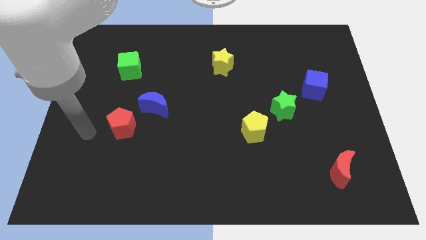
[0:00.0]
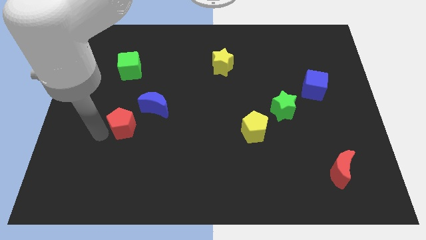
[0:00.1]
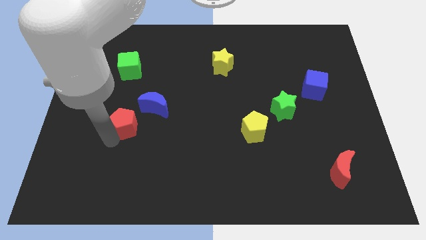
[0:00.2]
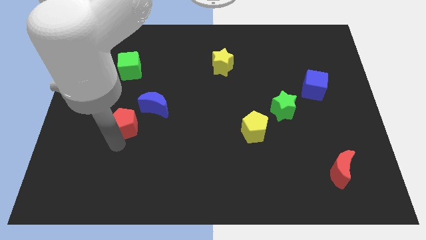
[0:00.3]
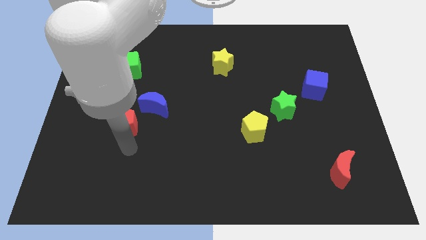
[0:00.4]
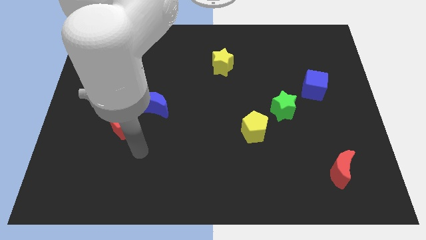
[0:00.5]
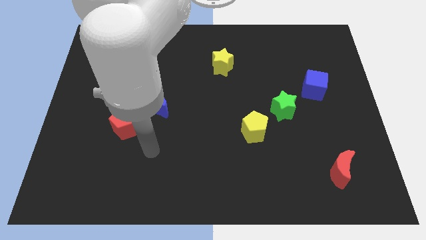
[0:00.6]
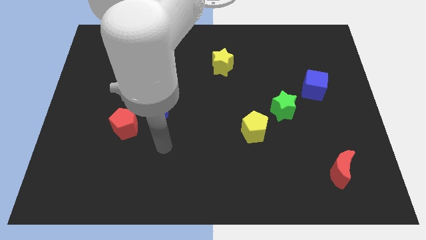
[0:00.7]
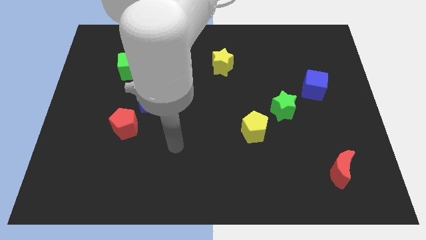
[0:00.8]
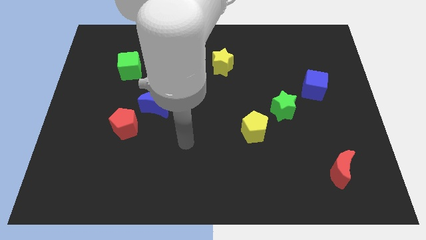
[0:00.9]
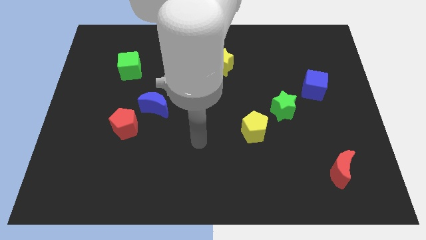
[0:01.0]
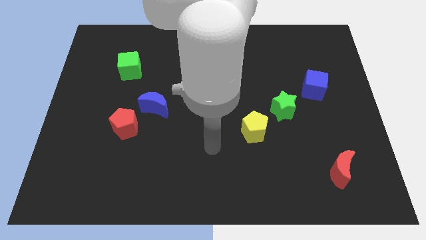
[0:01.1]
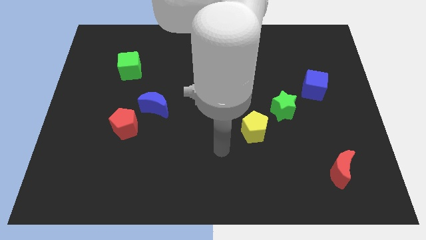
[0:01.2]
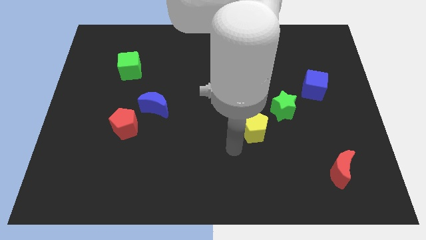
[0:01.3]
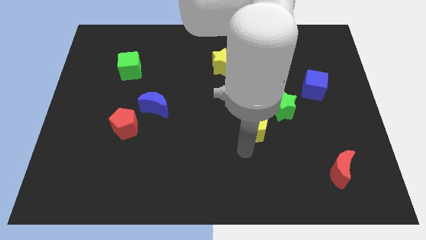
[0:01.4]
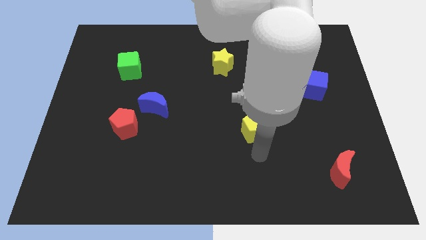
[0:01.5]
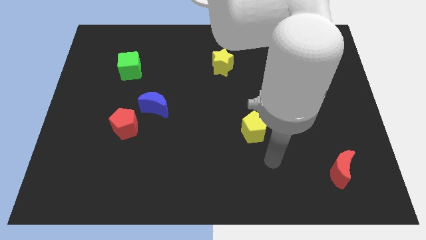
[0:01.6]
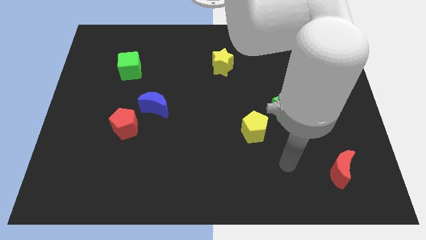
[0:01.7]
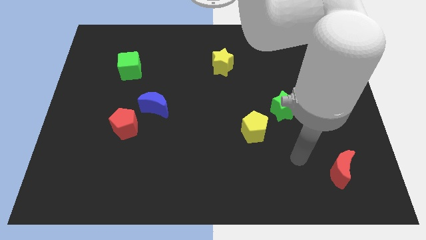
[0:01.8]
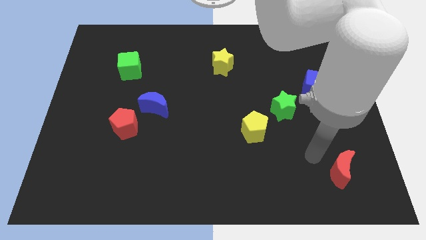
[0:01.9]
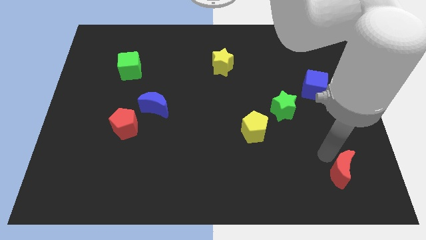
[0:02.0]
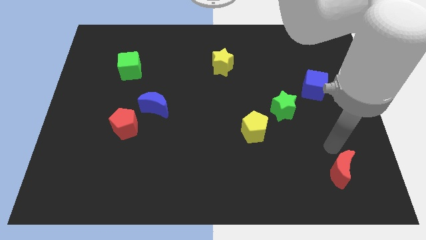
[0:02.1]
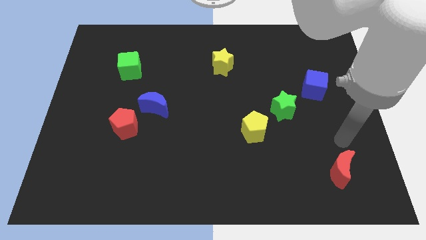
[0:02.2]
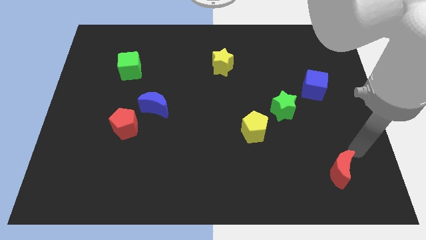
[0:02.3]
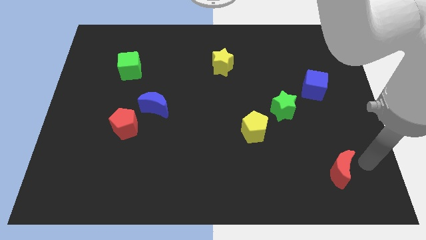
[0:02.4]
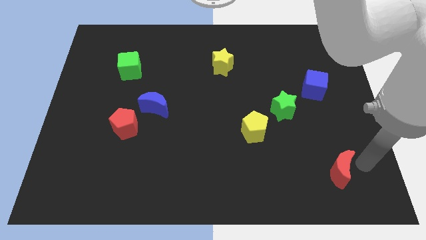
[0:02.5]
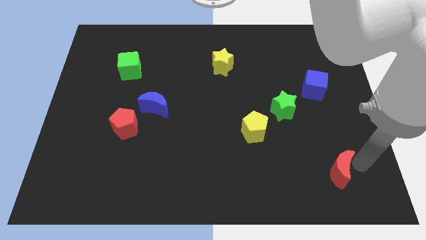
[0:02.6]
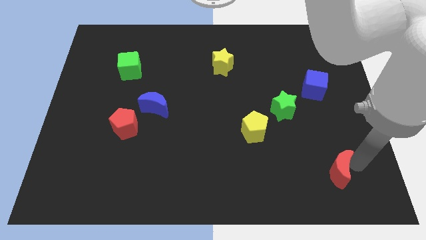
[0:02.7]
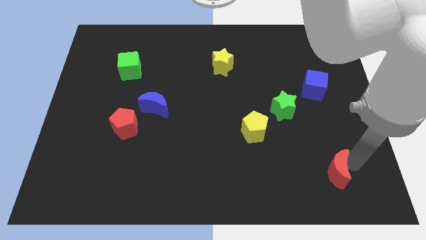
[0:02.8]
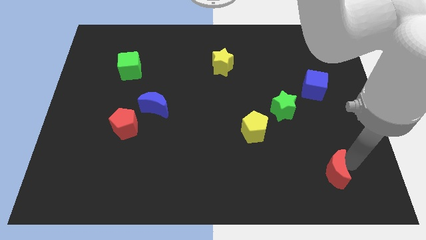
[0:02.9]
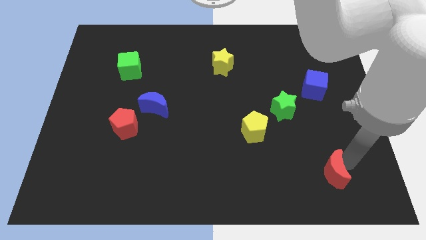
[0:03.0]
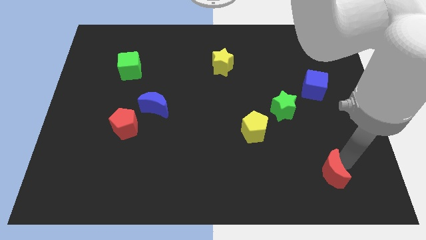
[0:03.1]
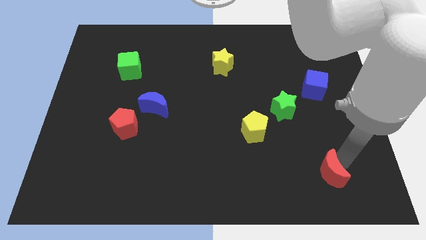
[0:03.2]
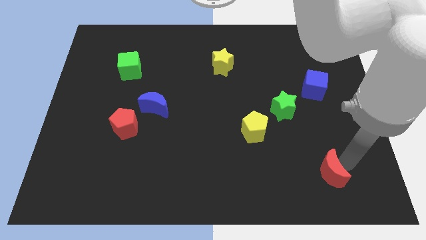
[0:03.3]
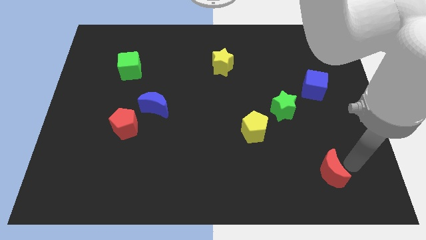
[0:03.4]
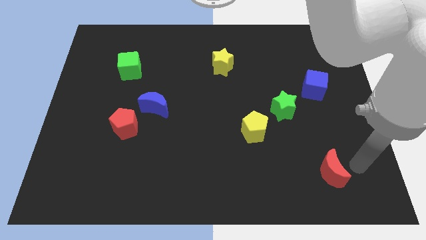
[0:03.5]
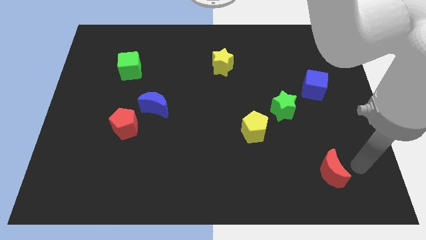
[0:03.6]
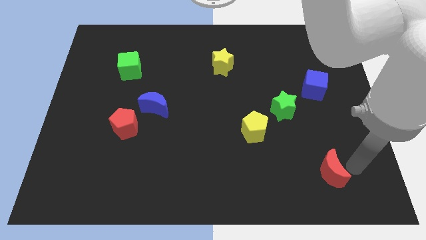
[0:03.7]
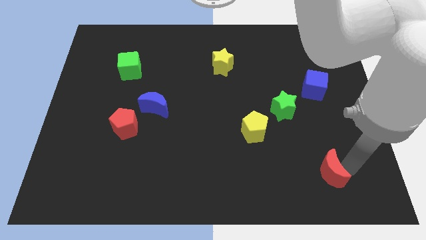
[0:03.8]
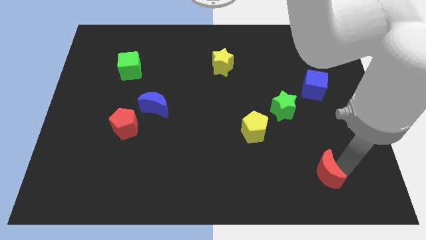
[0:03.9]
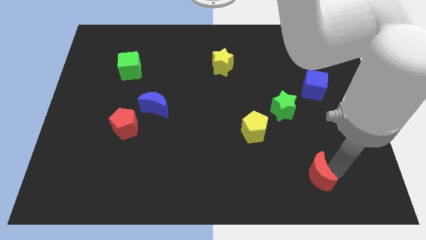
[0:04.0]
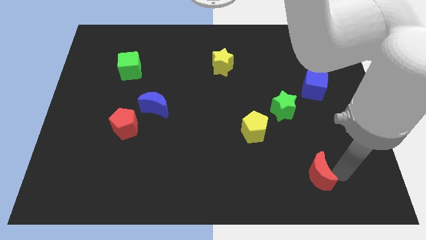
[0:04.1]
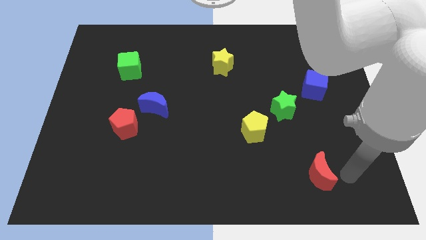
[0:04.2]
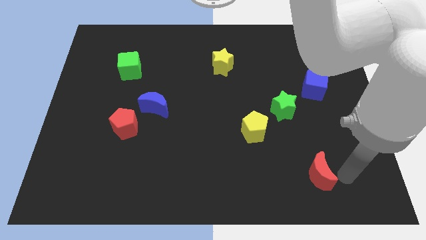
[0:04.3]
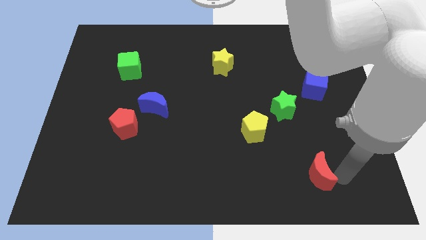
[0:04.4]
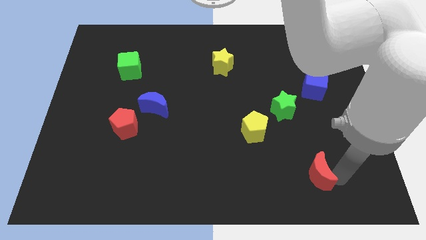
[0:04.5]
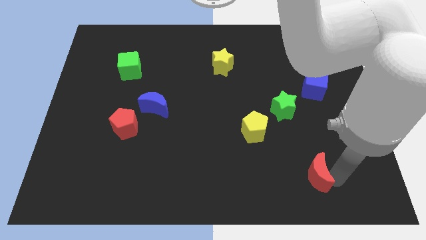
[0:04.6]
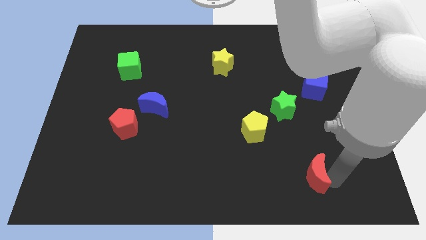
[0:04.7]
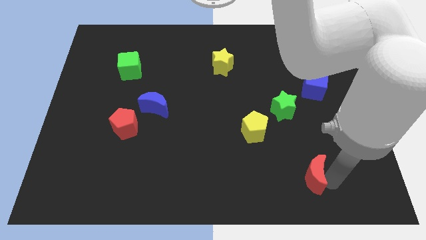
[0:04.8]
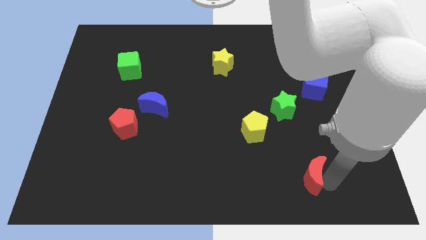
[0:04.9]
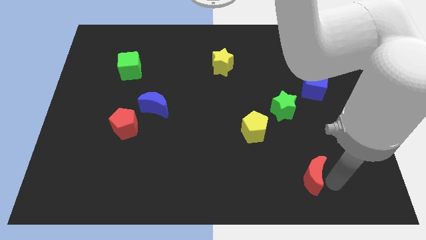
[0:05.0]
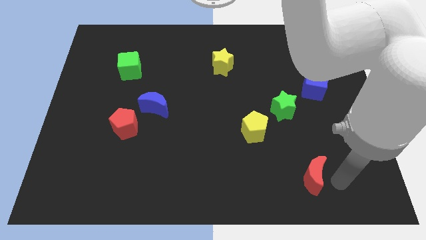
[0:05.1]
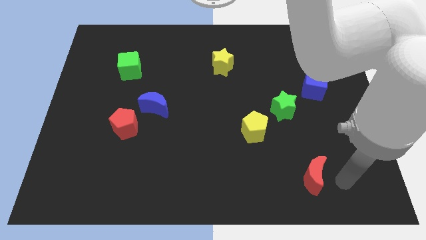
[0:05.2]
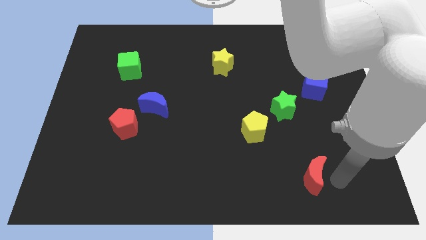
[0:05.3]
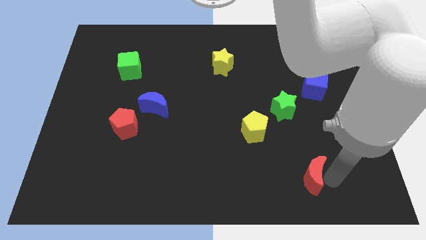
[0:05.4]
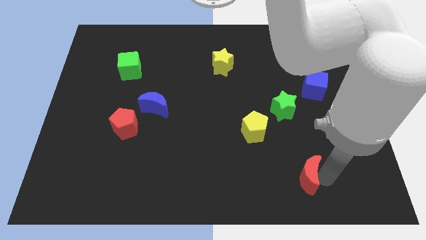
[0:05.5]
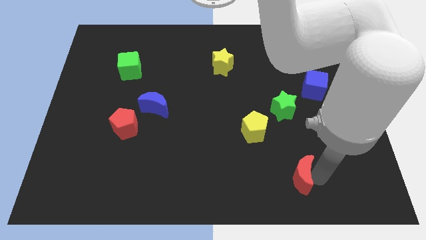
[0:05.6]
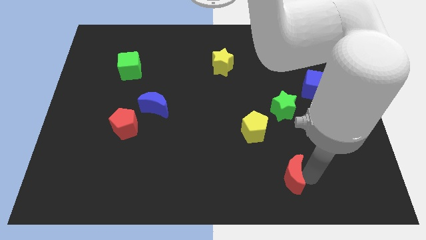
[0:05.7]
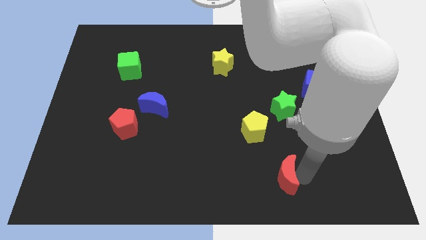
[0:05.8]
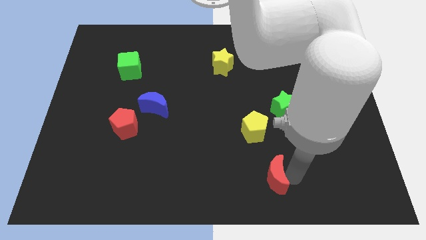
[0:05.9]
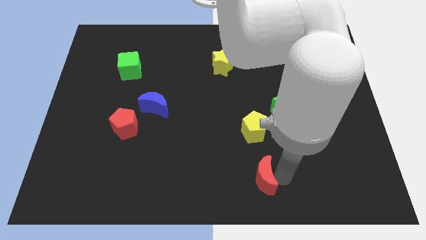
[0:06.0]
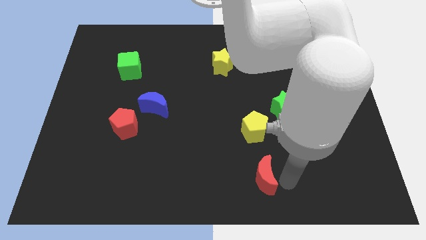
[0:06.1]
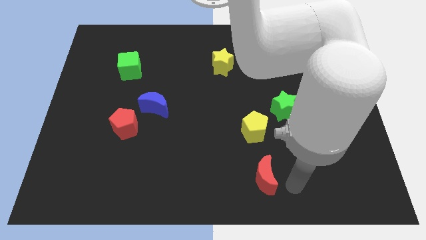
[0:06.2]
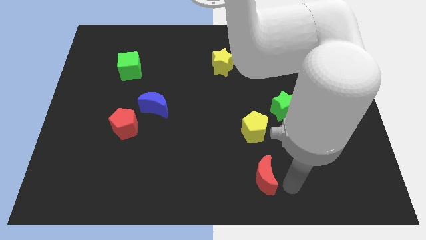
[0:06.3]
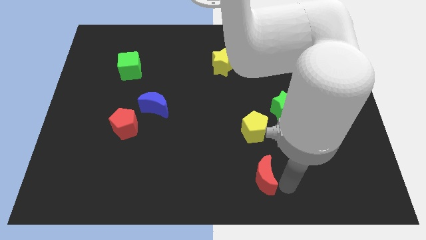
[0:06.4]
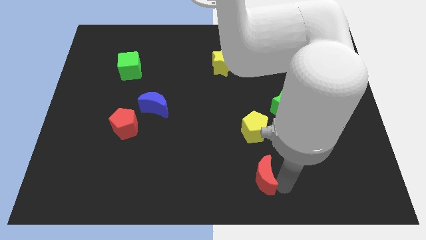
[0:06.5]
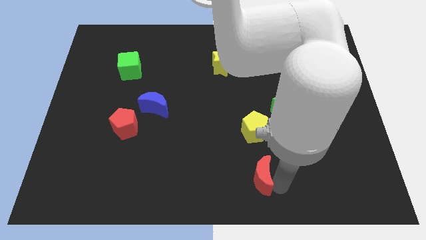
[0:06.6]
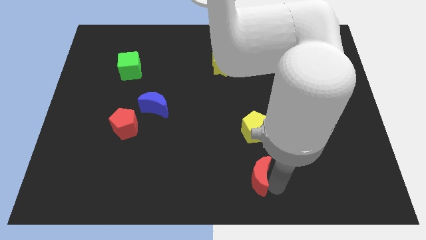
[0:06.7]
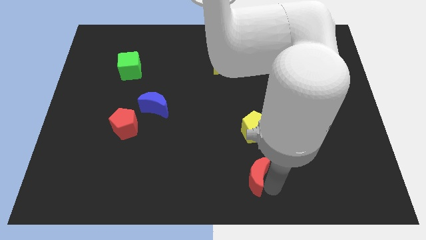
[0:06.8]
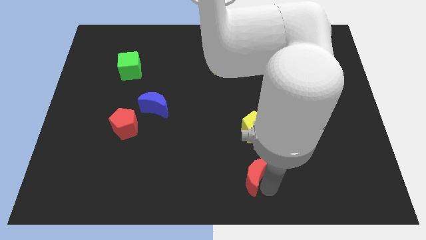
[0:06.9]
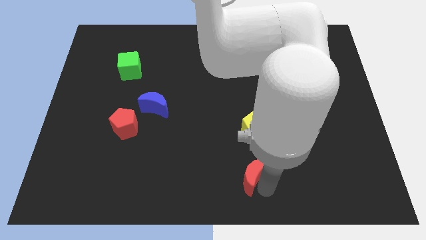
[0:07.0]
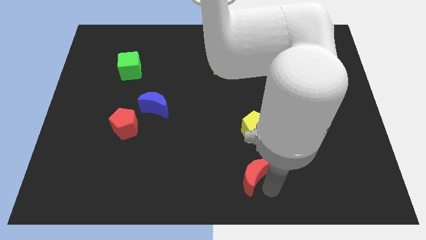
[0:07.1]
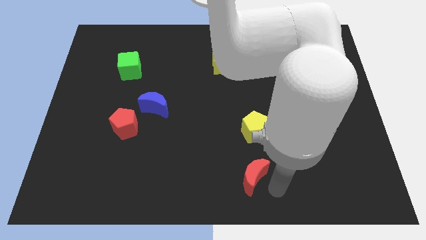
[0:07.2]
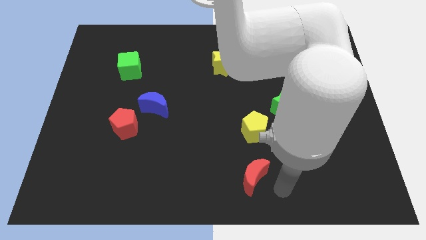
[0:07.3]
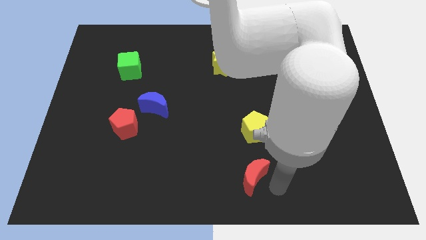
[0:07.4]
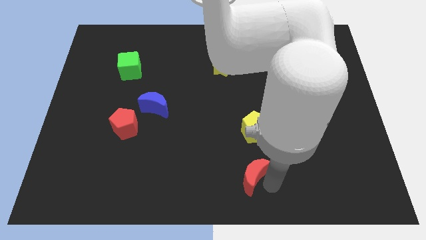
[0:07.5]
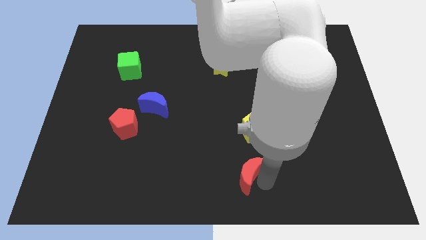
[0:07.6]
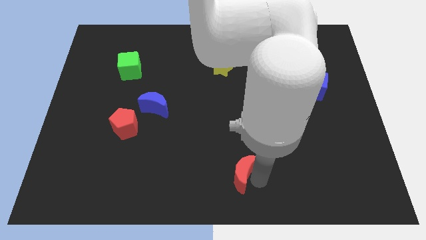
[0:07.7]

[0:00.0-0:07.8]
push the red moon left

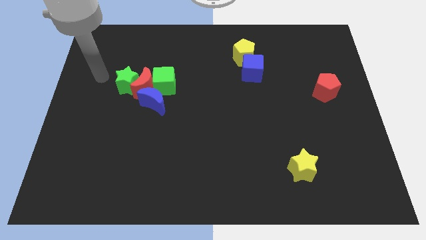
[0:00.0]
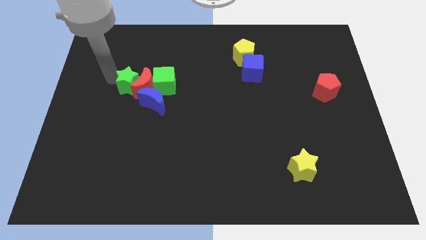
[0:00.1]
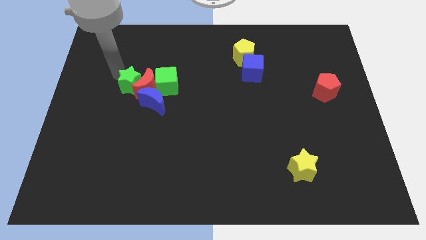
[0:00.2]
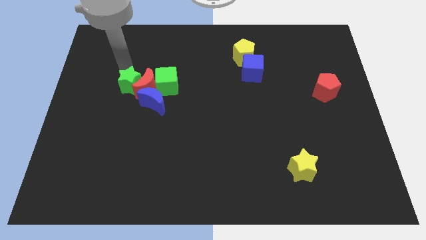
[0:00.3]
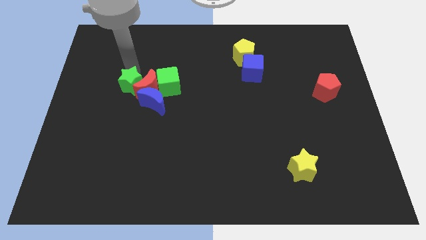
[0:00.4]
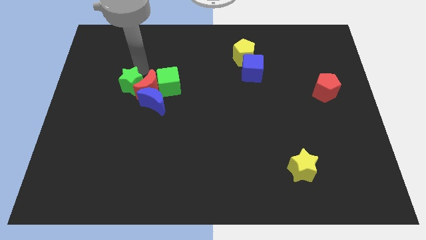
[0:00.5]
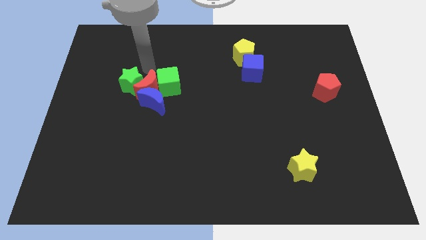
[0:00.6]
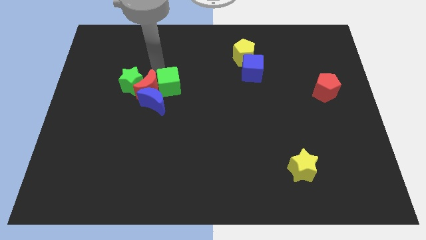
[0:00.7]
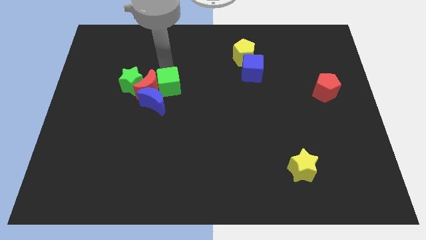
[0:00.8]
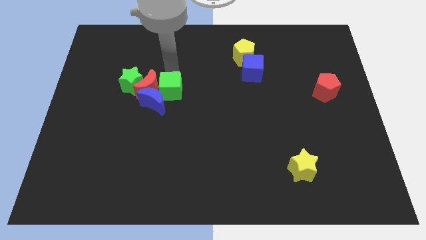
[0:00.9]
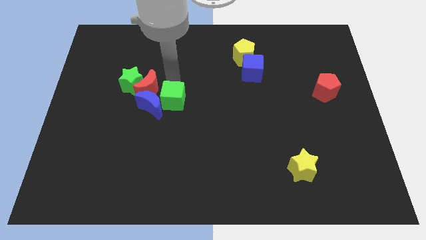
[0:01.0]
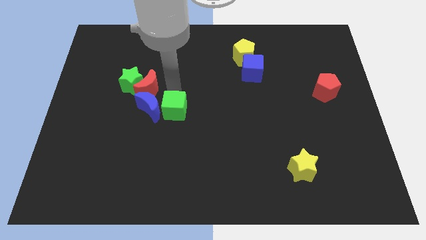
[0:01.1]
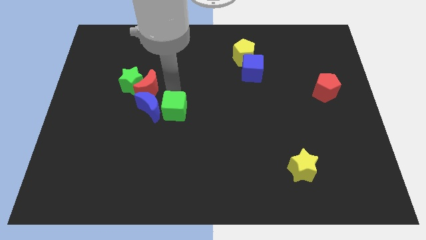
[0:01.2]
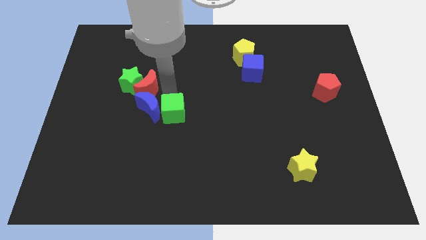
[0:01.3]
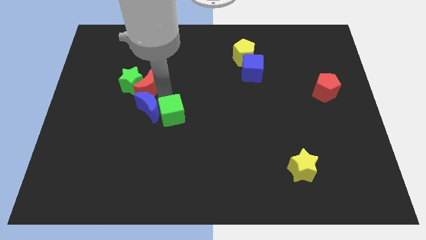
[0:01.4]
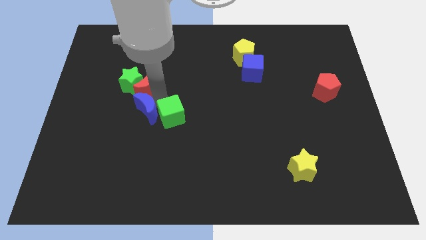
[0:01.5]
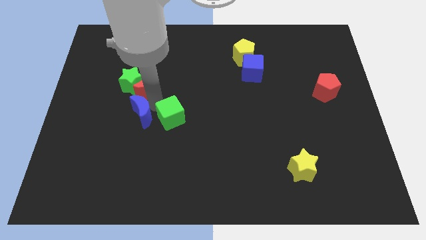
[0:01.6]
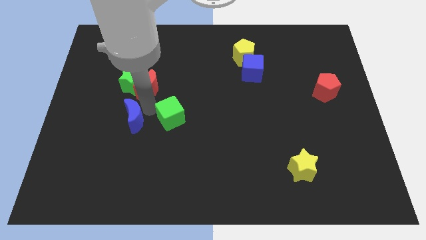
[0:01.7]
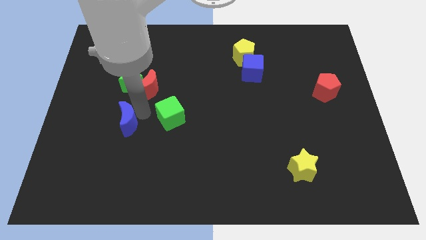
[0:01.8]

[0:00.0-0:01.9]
push the blue moon down and to the left somewhat
